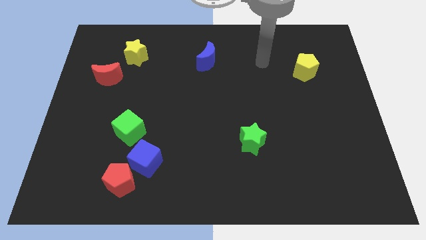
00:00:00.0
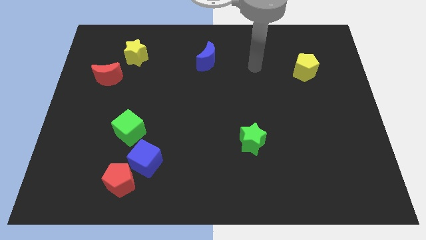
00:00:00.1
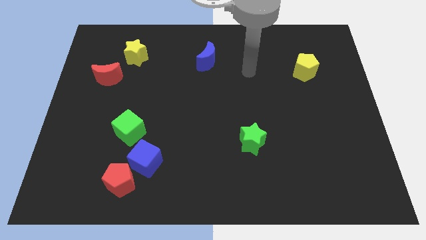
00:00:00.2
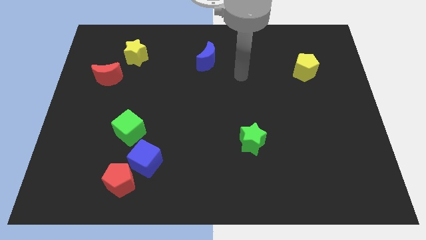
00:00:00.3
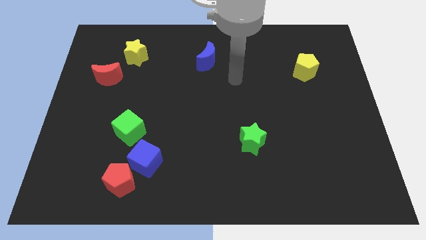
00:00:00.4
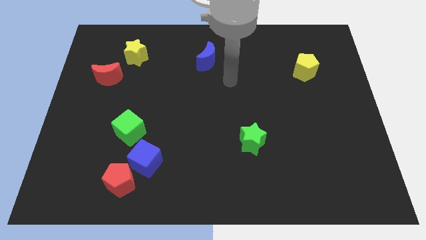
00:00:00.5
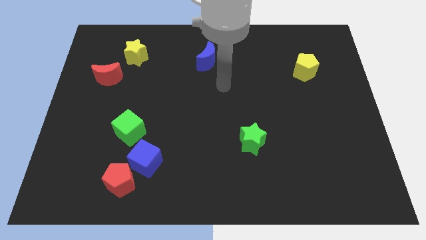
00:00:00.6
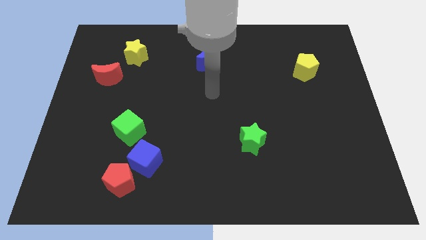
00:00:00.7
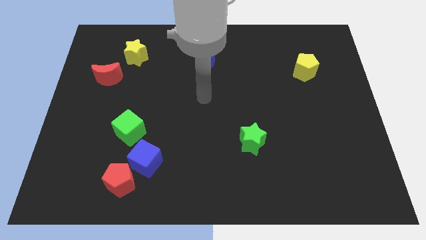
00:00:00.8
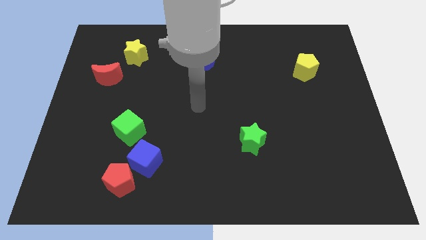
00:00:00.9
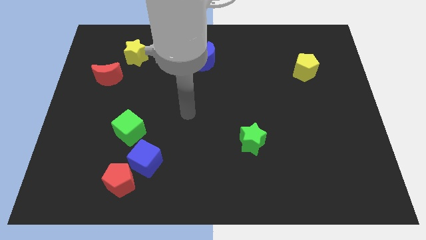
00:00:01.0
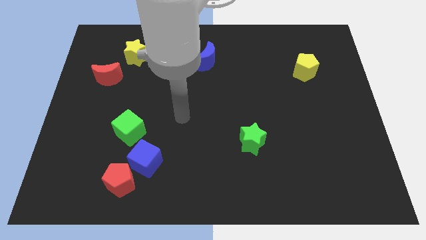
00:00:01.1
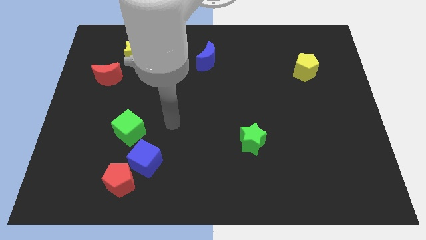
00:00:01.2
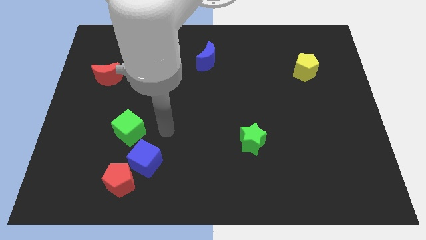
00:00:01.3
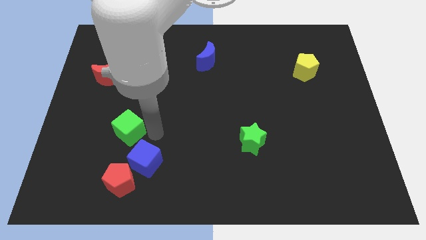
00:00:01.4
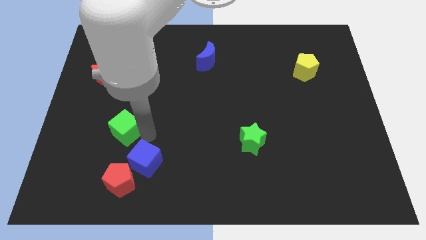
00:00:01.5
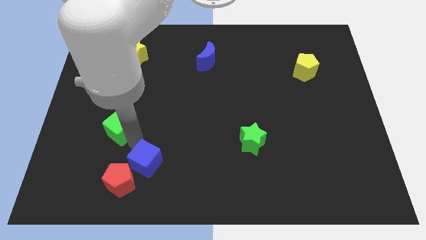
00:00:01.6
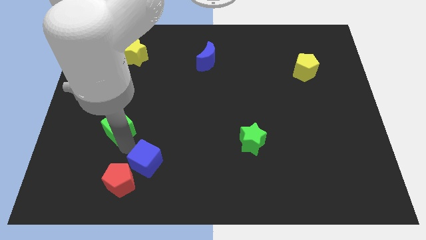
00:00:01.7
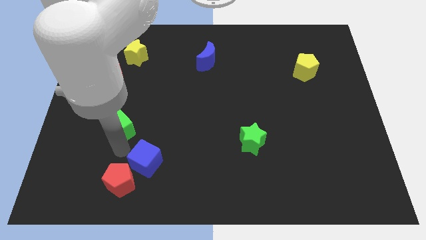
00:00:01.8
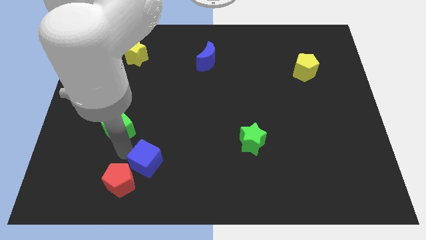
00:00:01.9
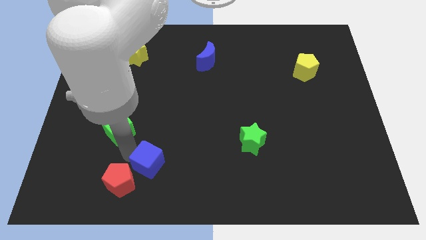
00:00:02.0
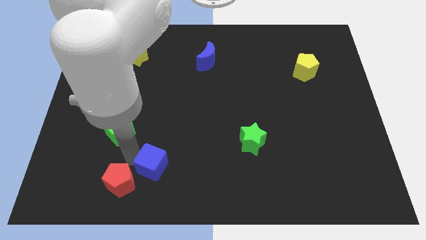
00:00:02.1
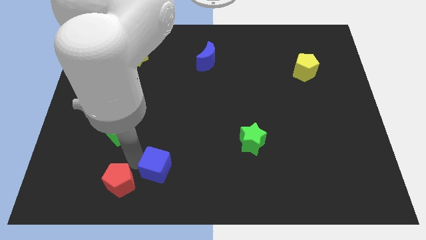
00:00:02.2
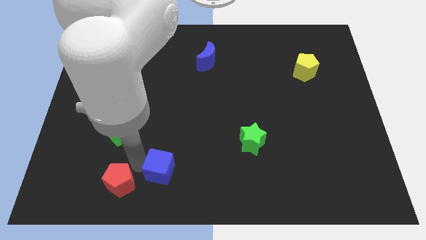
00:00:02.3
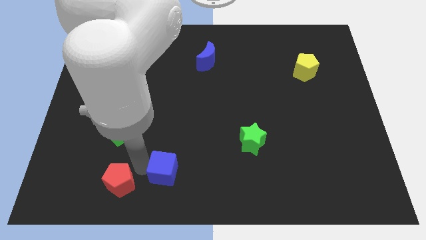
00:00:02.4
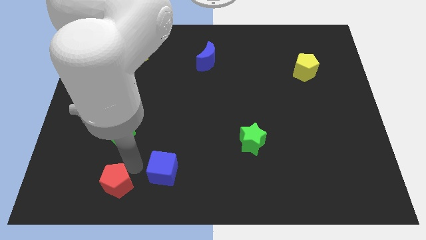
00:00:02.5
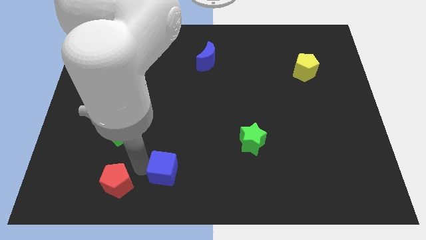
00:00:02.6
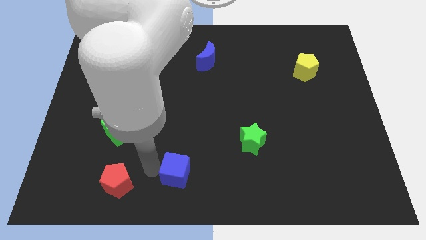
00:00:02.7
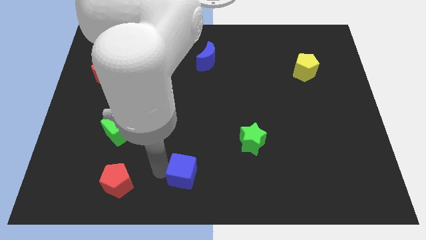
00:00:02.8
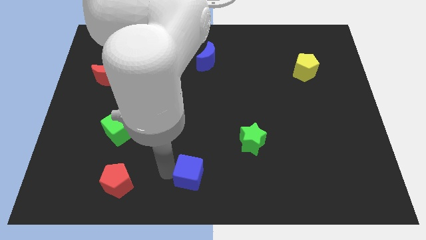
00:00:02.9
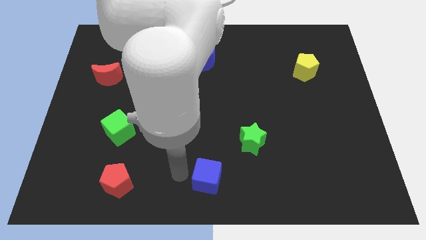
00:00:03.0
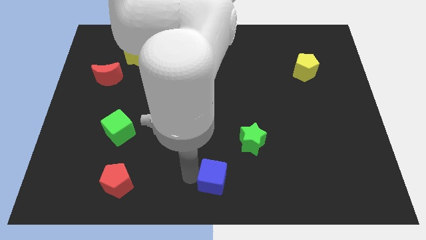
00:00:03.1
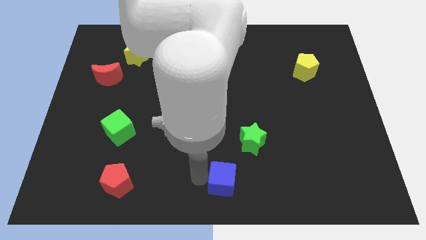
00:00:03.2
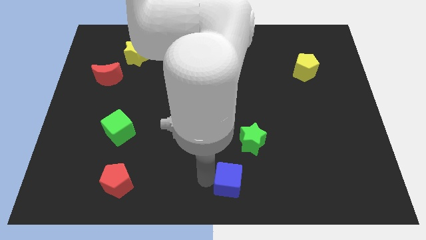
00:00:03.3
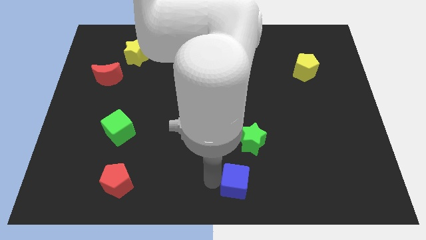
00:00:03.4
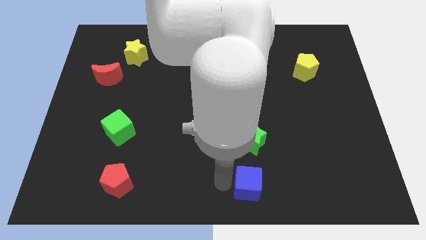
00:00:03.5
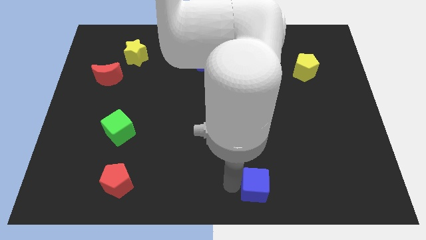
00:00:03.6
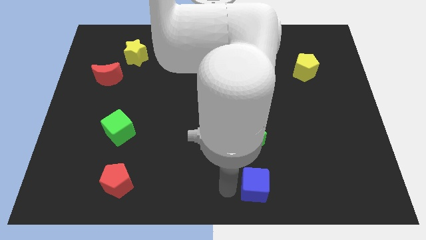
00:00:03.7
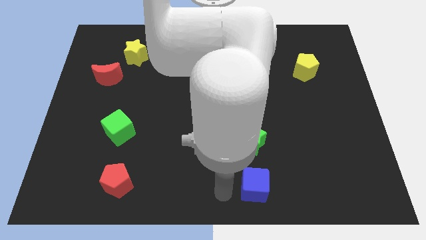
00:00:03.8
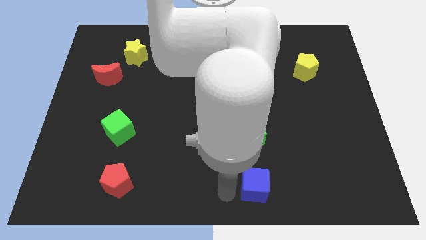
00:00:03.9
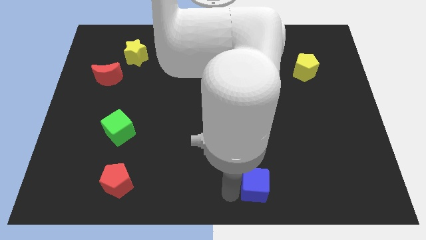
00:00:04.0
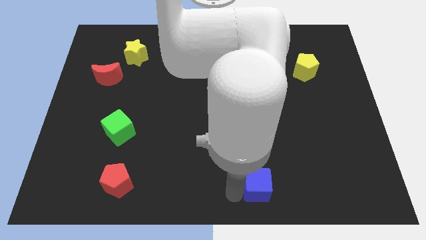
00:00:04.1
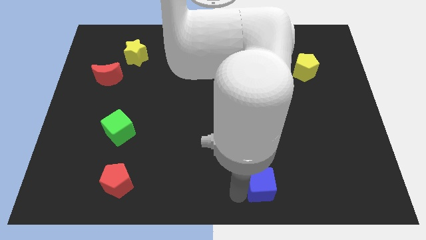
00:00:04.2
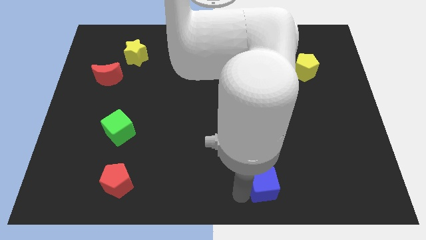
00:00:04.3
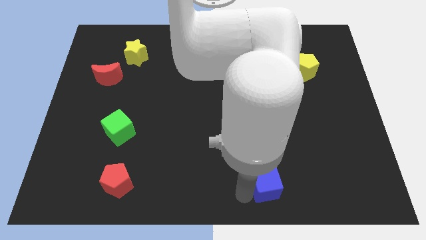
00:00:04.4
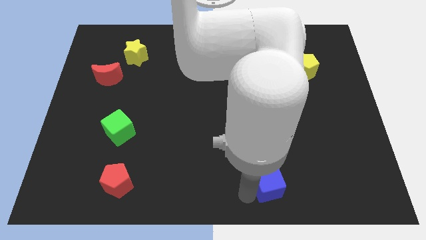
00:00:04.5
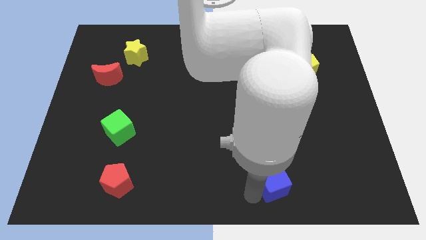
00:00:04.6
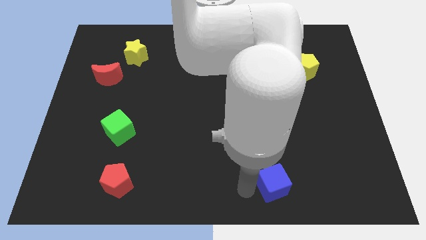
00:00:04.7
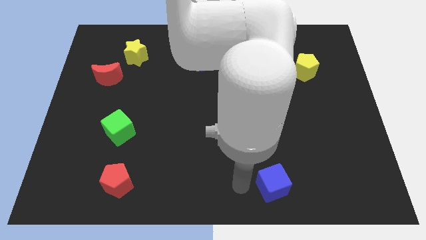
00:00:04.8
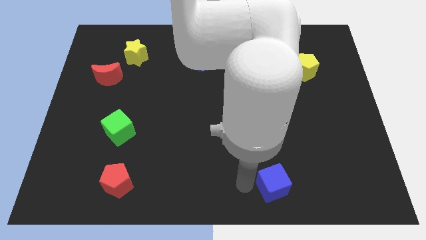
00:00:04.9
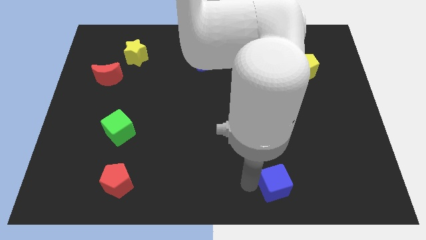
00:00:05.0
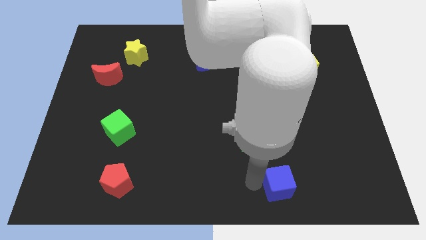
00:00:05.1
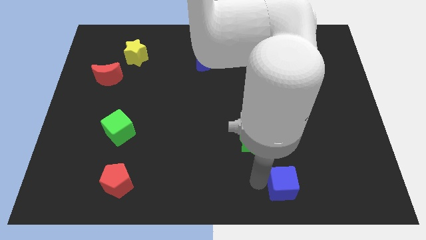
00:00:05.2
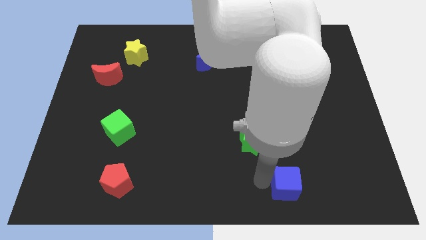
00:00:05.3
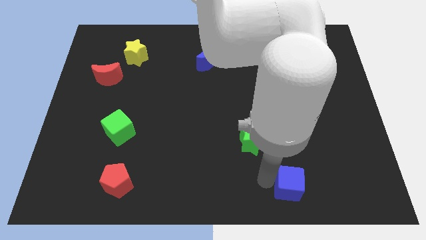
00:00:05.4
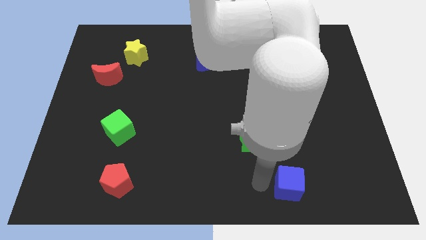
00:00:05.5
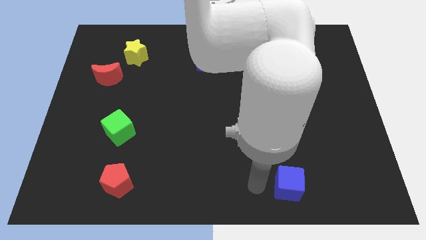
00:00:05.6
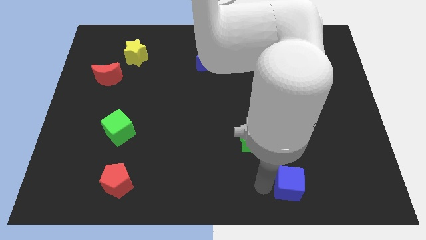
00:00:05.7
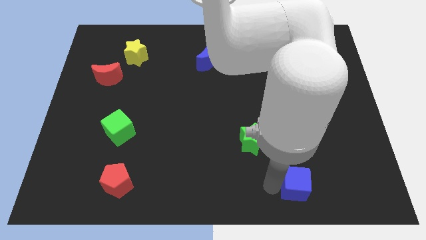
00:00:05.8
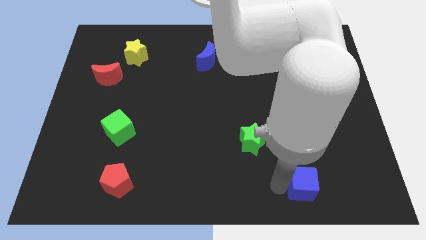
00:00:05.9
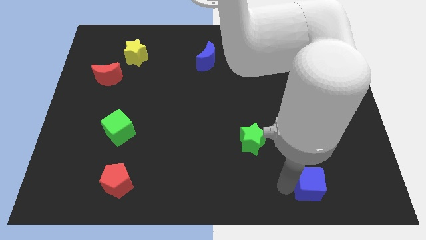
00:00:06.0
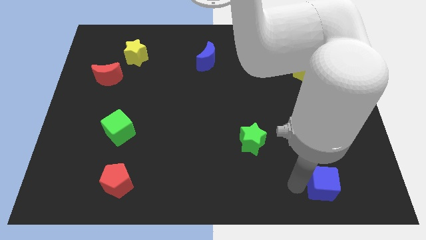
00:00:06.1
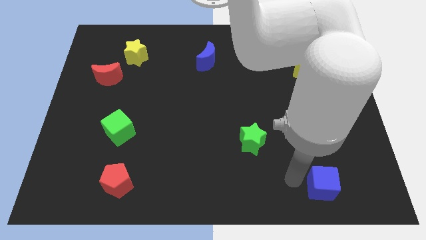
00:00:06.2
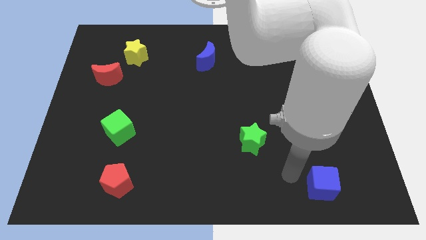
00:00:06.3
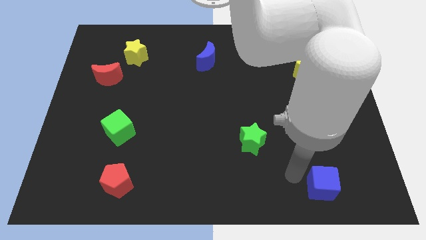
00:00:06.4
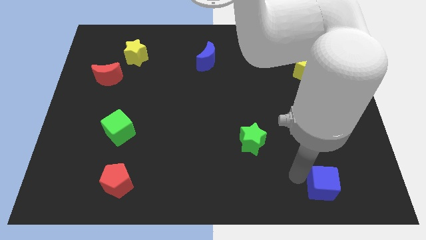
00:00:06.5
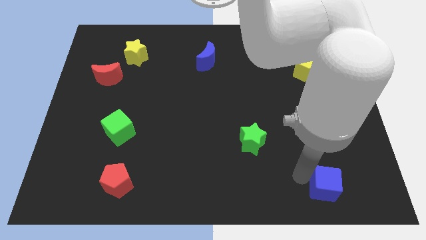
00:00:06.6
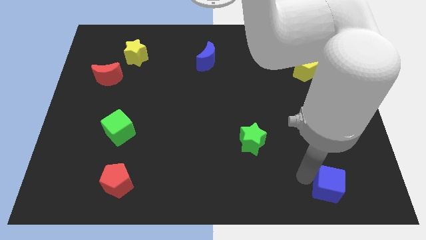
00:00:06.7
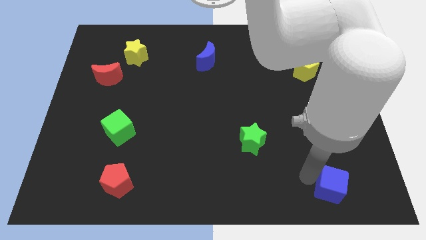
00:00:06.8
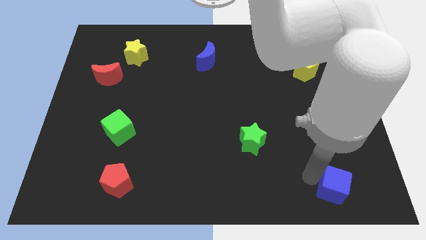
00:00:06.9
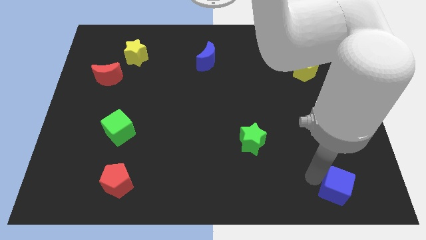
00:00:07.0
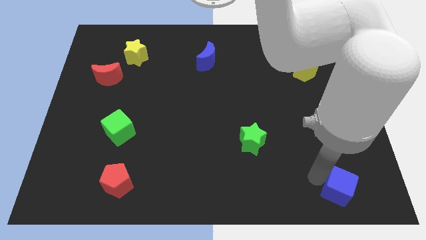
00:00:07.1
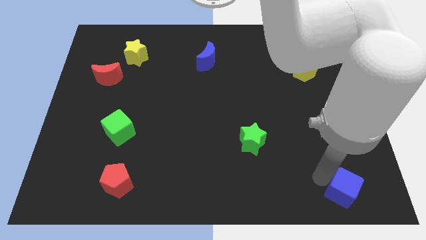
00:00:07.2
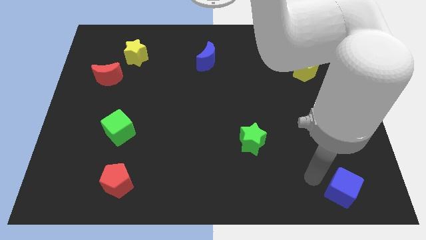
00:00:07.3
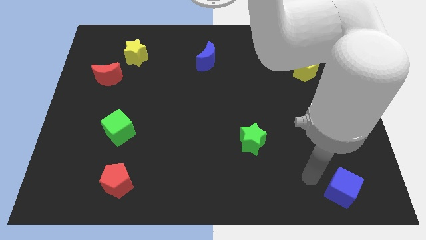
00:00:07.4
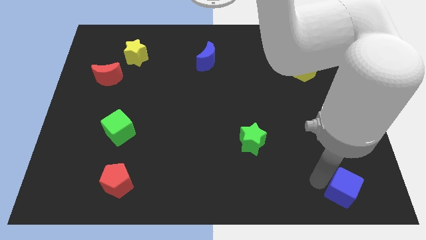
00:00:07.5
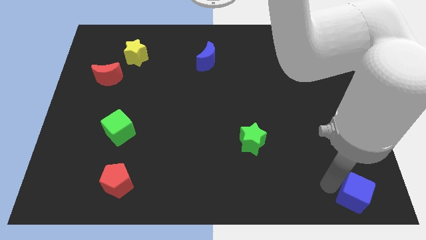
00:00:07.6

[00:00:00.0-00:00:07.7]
slide the blue cube to the lower right corner
